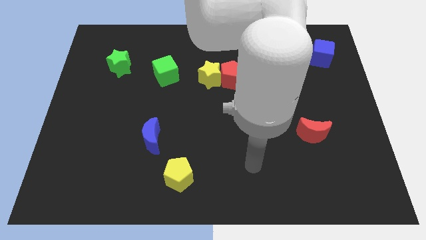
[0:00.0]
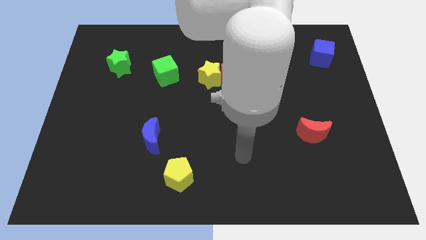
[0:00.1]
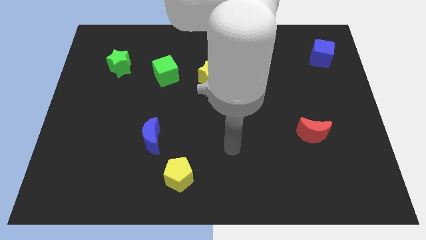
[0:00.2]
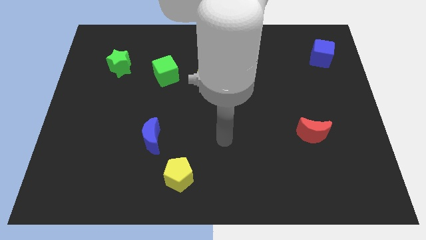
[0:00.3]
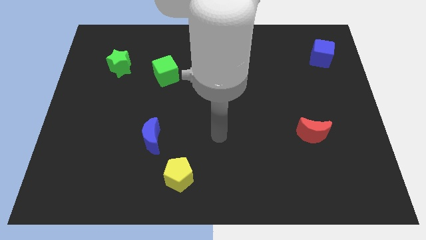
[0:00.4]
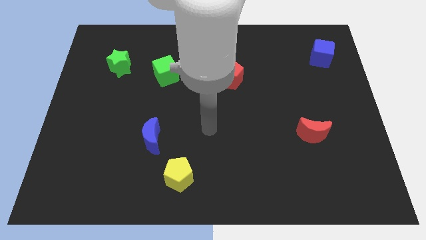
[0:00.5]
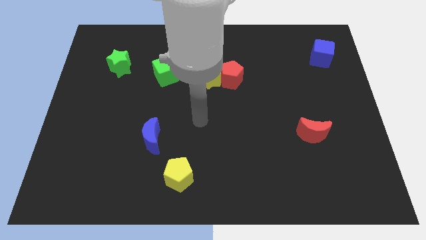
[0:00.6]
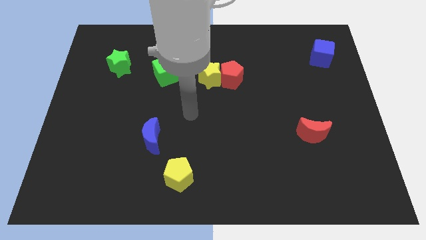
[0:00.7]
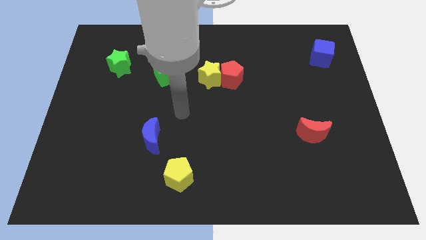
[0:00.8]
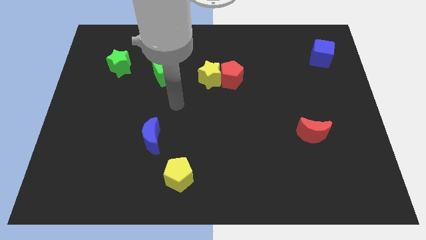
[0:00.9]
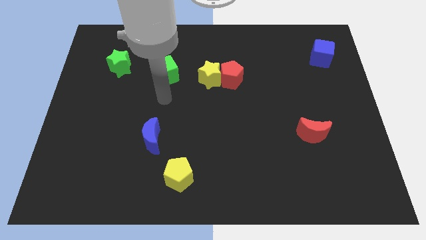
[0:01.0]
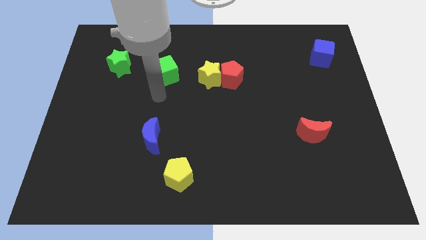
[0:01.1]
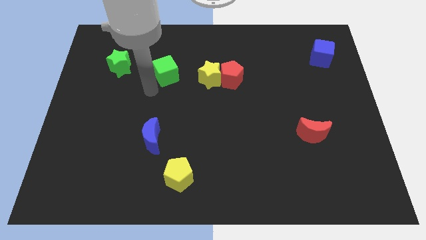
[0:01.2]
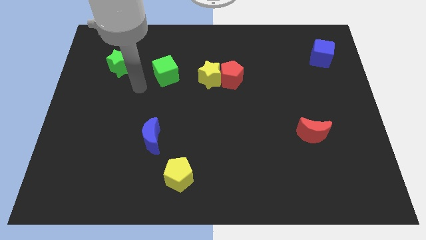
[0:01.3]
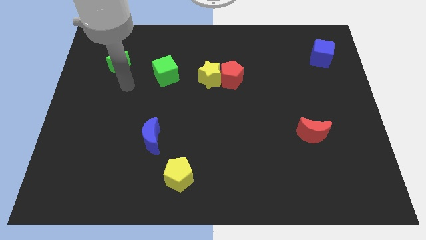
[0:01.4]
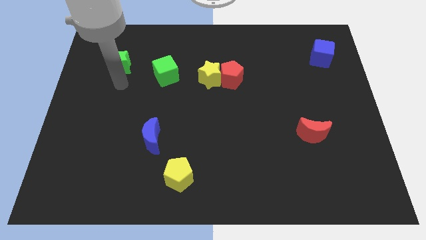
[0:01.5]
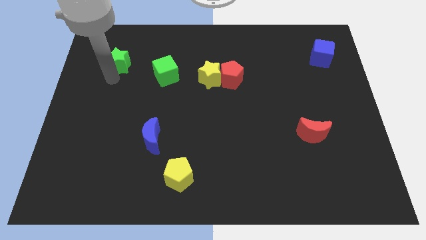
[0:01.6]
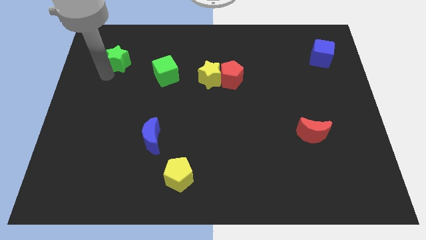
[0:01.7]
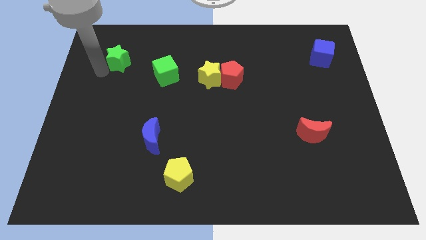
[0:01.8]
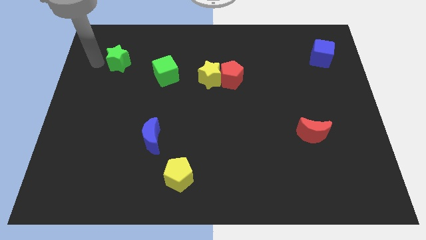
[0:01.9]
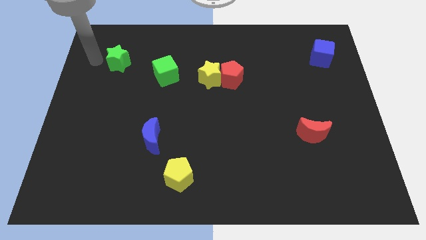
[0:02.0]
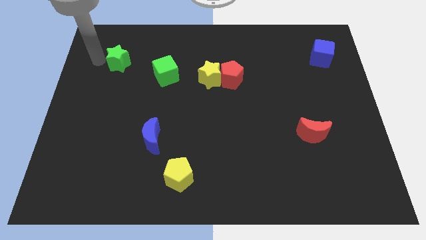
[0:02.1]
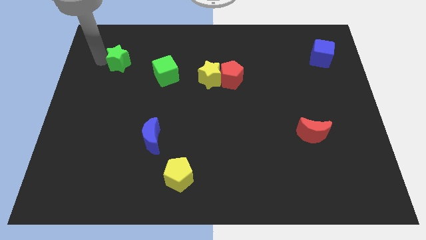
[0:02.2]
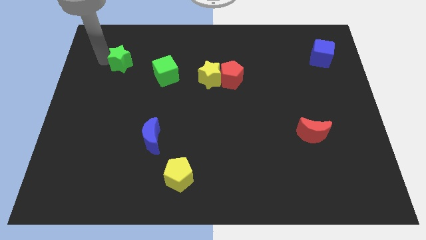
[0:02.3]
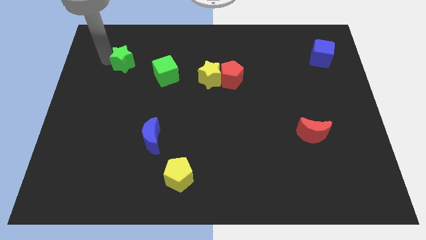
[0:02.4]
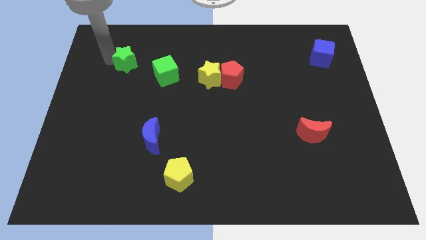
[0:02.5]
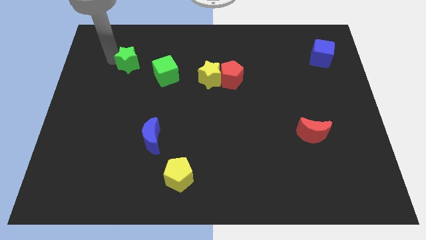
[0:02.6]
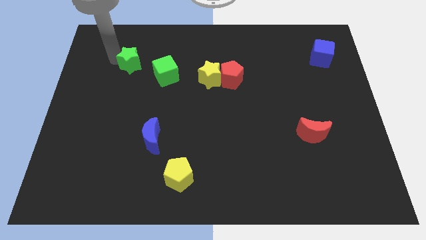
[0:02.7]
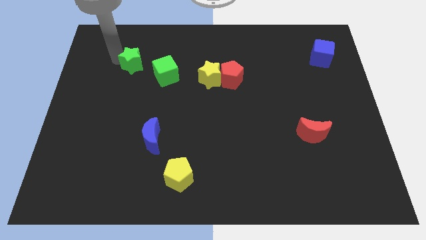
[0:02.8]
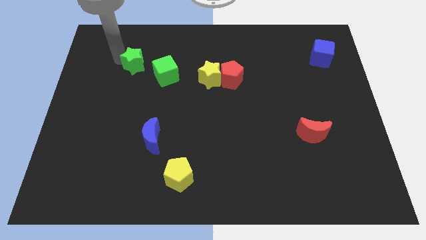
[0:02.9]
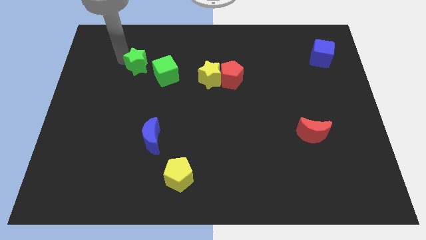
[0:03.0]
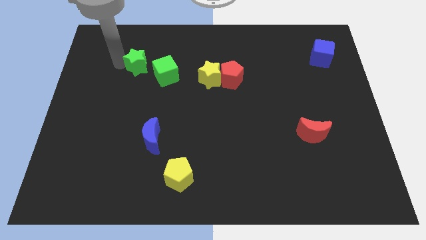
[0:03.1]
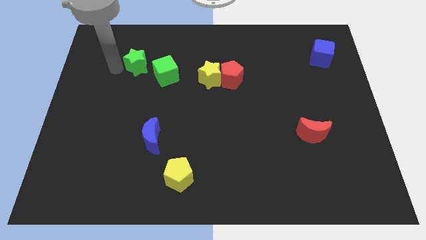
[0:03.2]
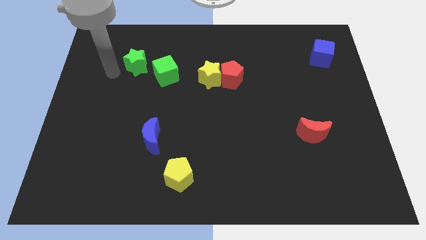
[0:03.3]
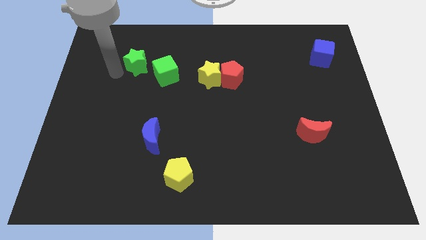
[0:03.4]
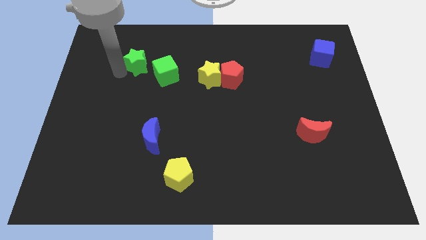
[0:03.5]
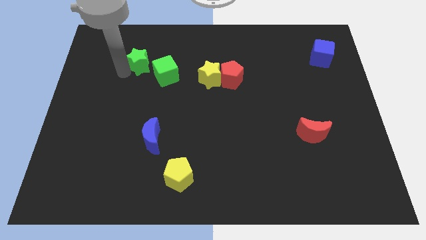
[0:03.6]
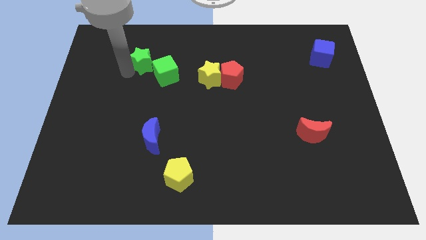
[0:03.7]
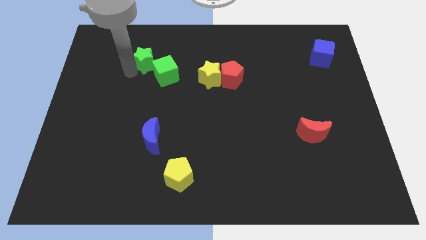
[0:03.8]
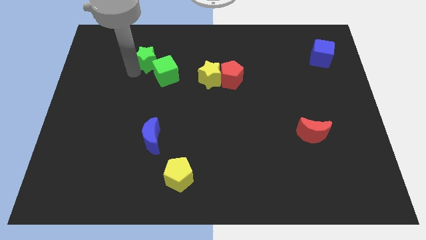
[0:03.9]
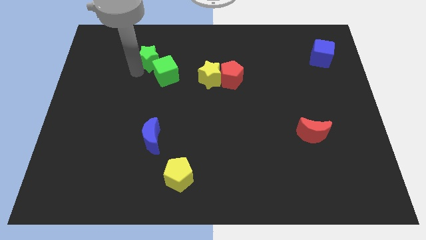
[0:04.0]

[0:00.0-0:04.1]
slightly move the green star to the right

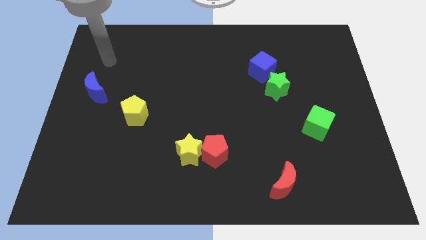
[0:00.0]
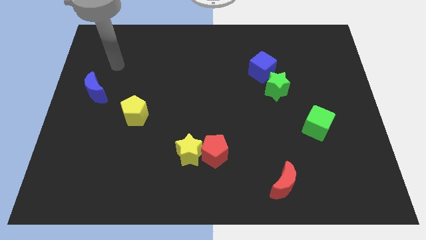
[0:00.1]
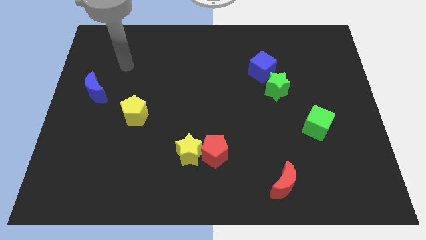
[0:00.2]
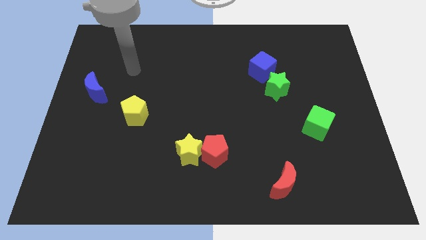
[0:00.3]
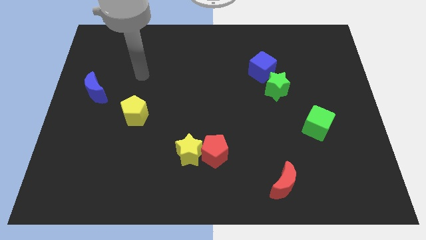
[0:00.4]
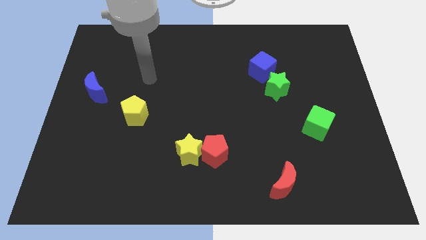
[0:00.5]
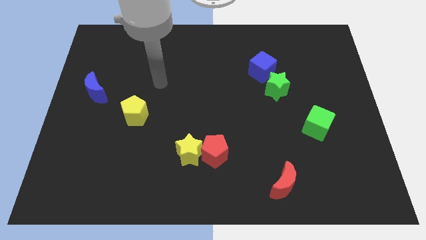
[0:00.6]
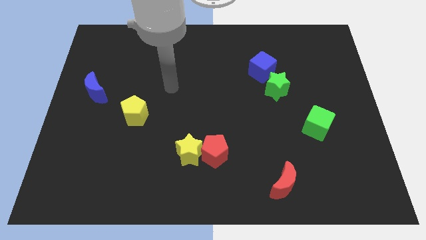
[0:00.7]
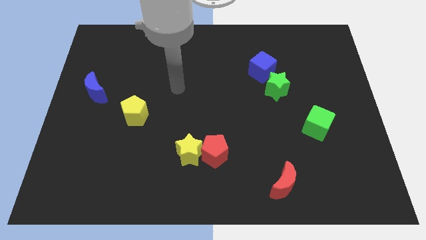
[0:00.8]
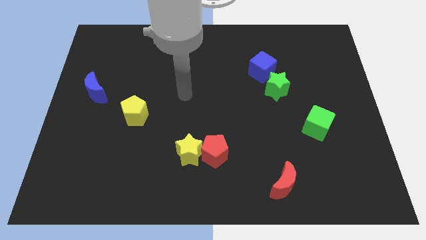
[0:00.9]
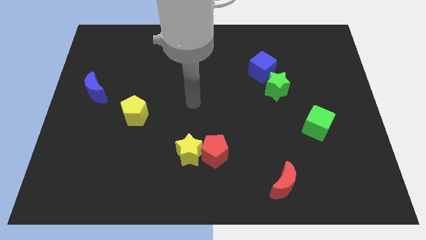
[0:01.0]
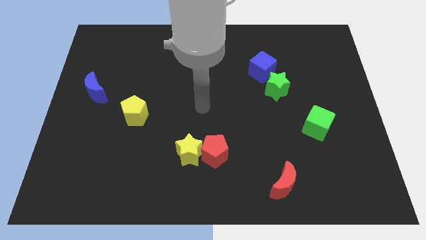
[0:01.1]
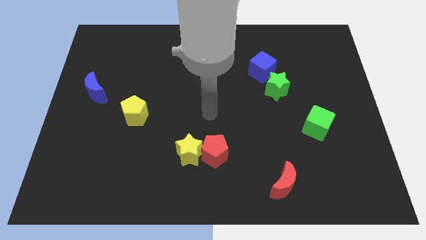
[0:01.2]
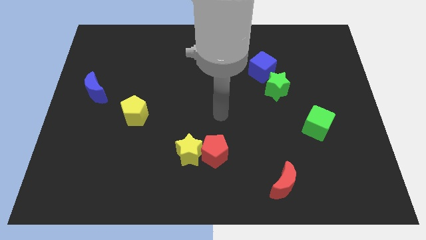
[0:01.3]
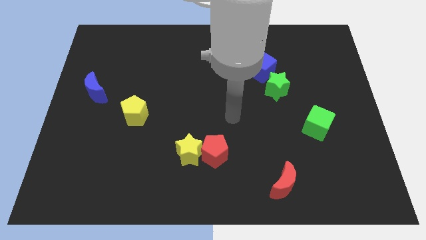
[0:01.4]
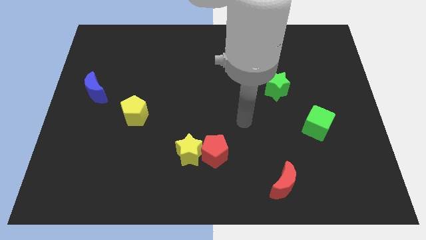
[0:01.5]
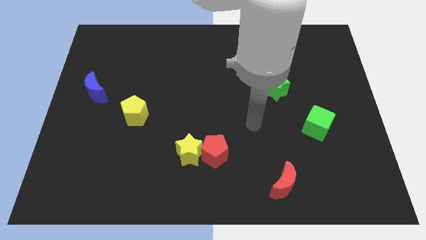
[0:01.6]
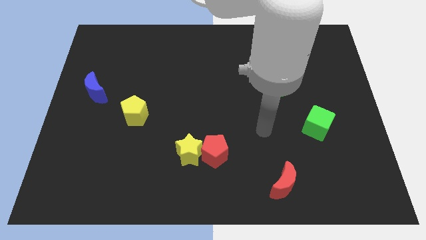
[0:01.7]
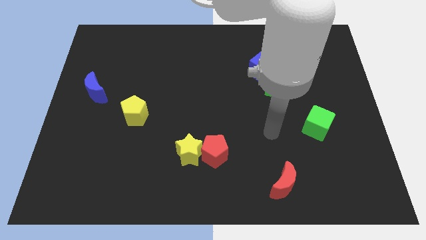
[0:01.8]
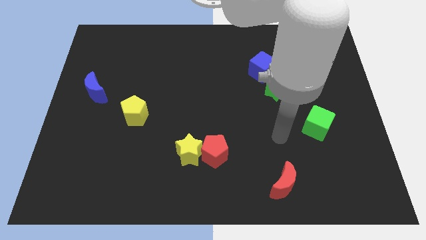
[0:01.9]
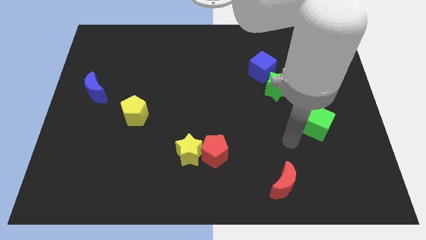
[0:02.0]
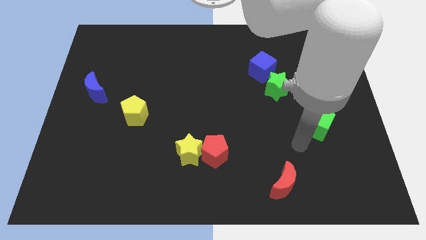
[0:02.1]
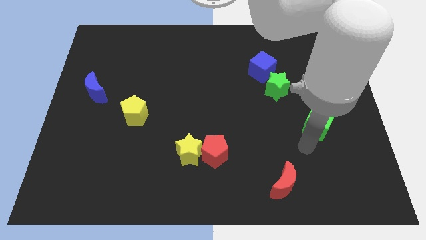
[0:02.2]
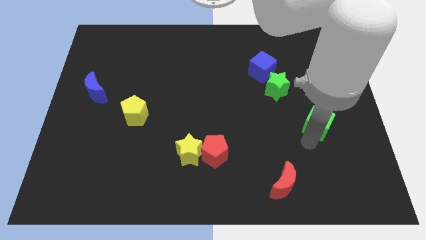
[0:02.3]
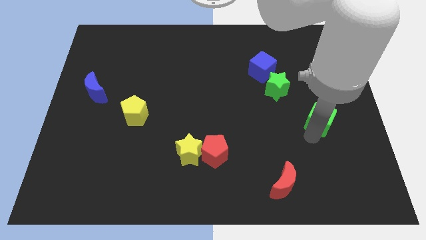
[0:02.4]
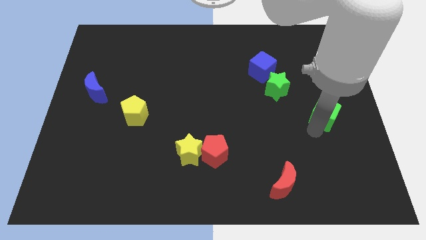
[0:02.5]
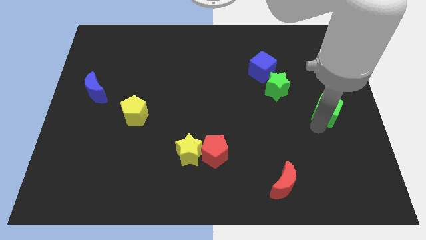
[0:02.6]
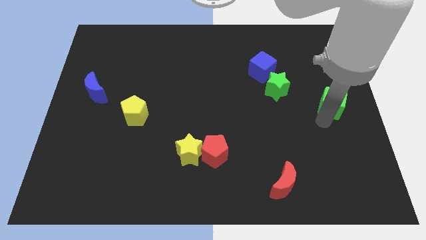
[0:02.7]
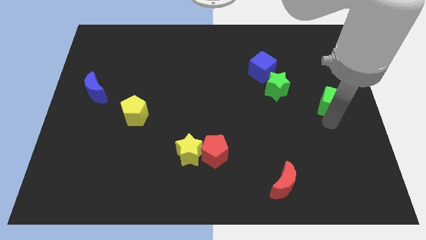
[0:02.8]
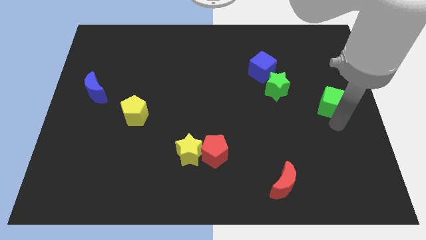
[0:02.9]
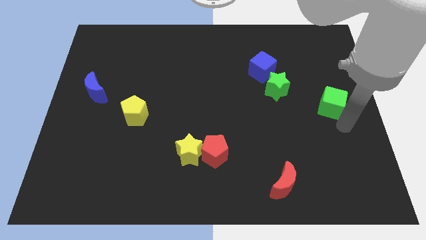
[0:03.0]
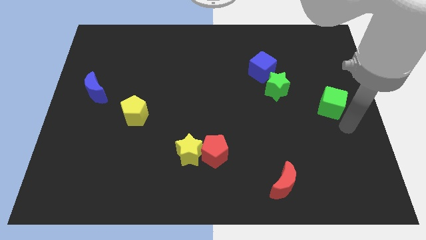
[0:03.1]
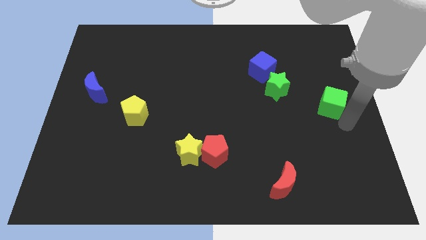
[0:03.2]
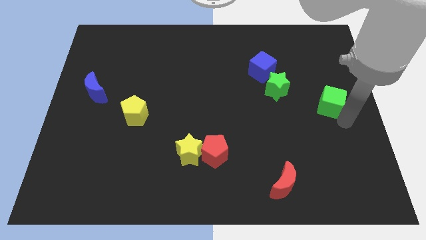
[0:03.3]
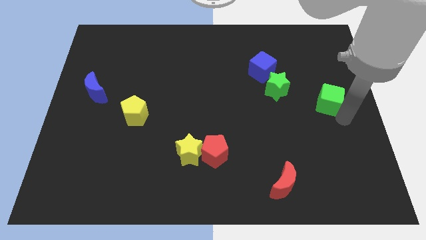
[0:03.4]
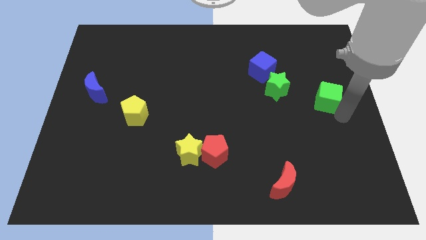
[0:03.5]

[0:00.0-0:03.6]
slide the green cube slightly upwards
